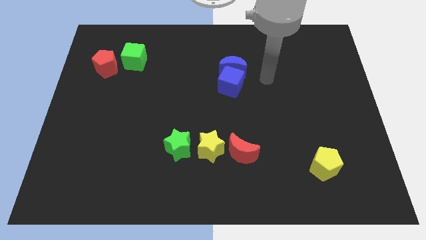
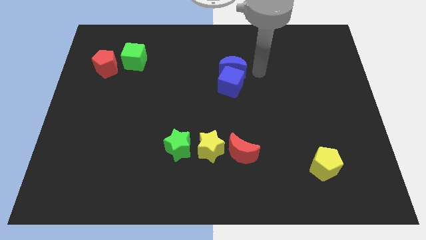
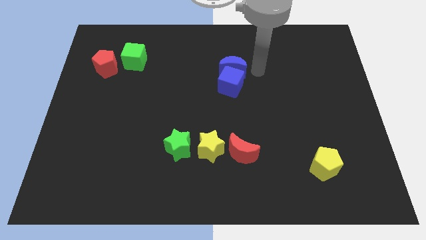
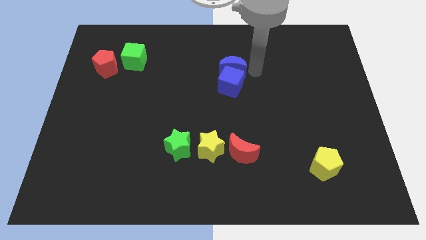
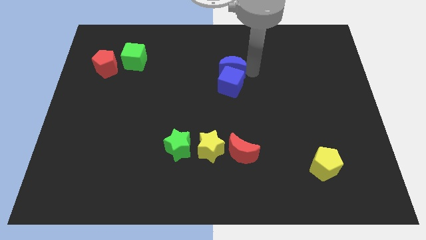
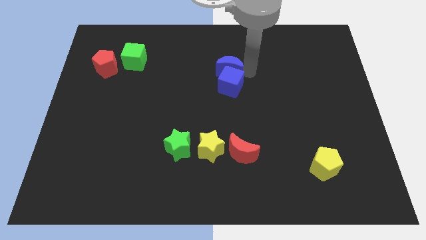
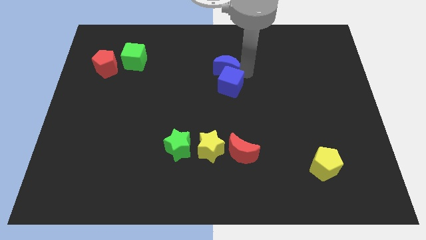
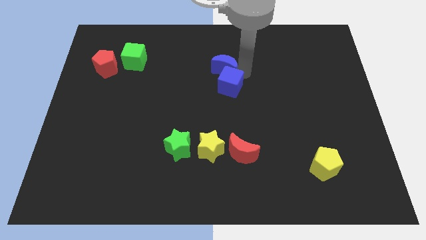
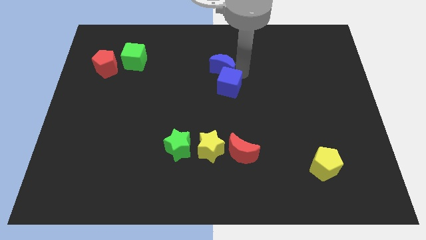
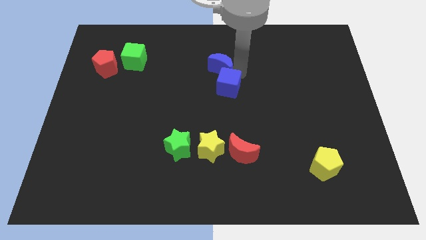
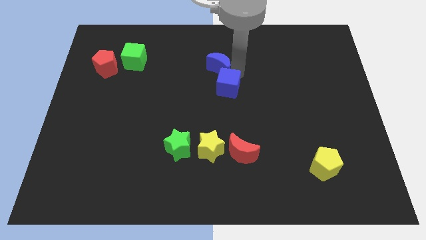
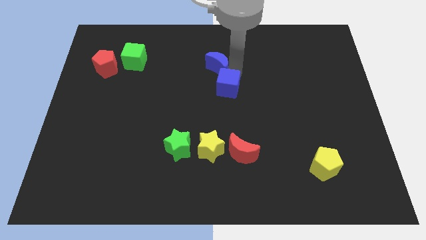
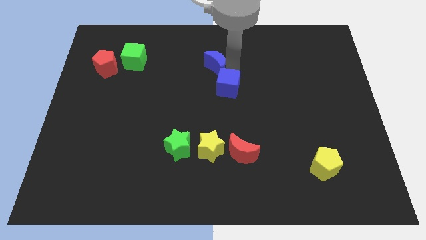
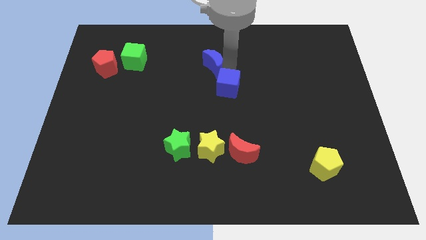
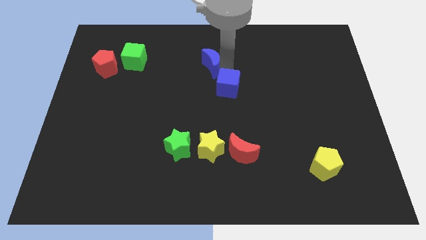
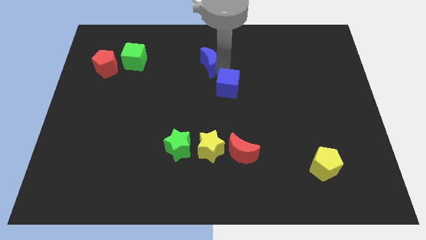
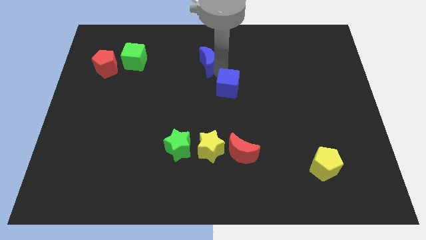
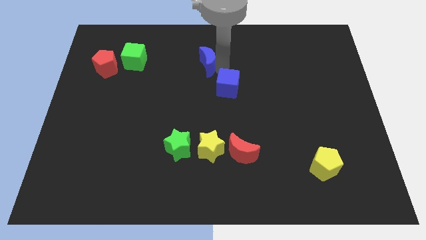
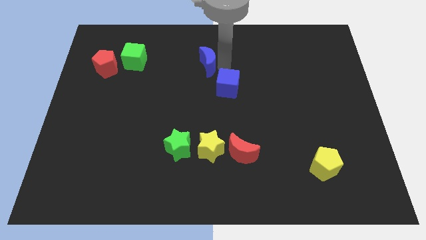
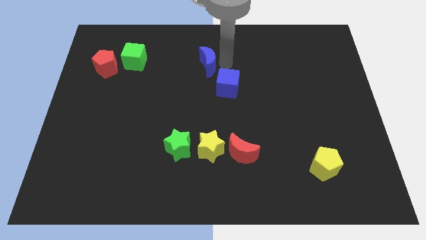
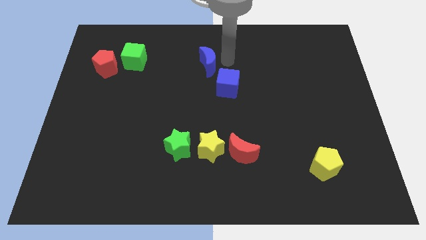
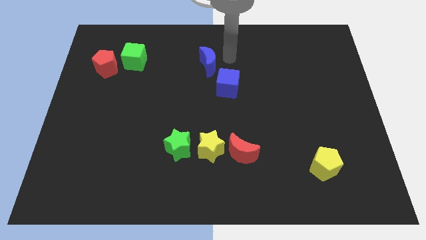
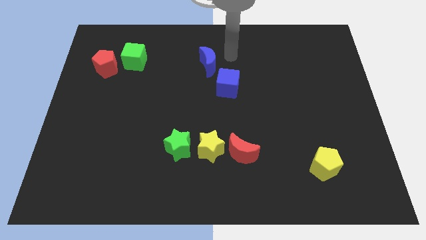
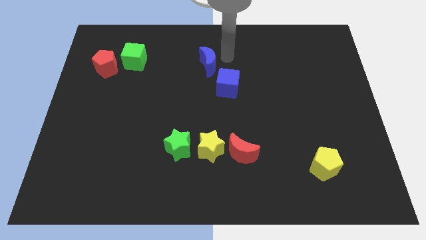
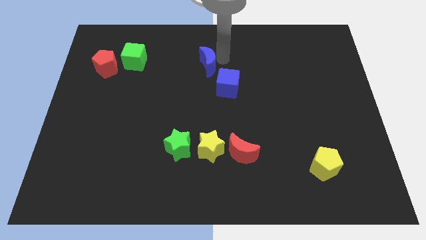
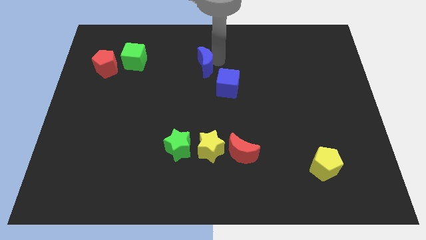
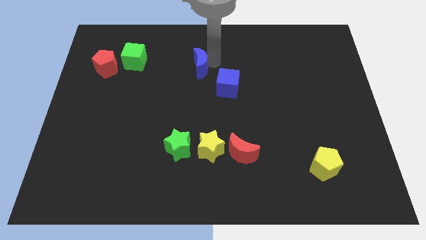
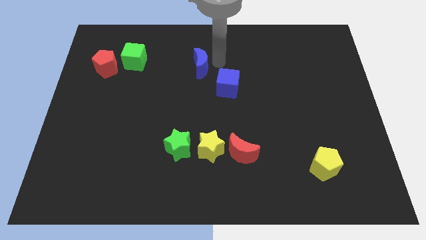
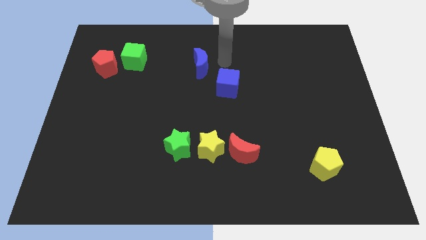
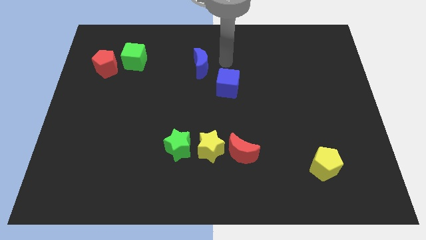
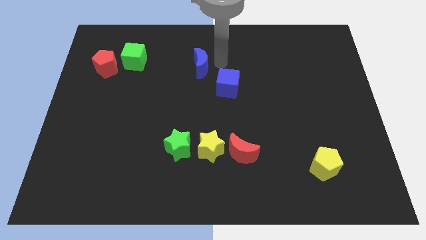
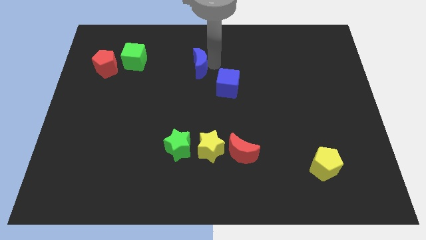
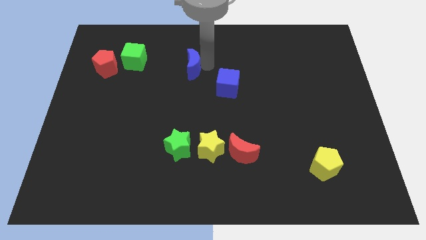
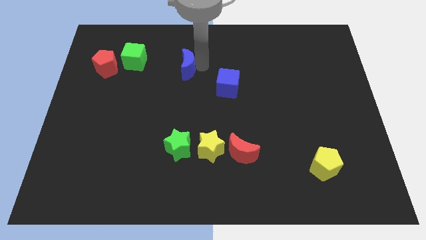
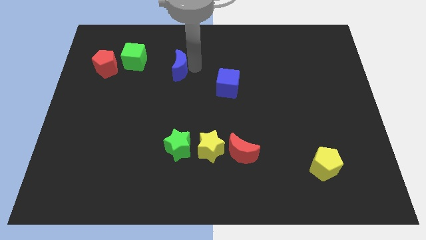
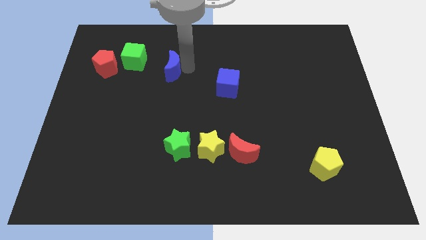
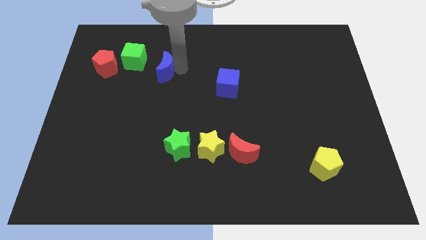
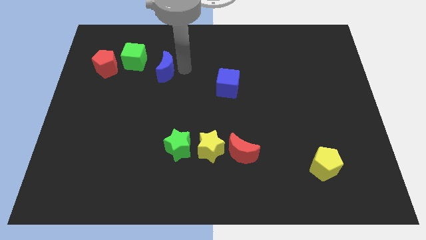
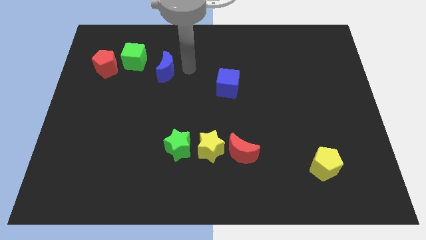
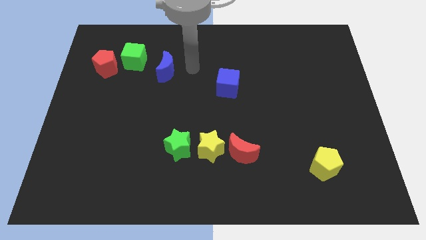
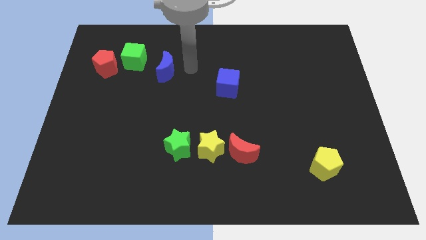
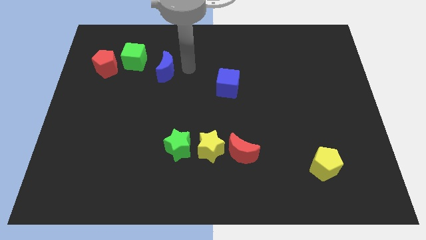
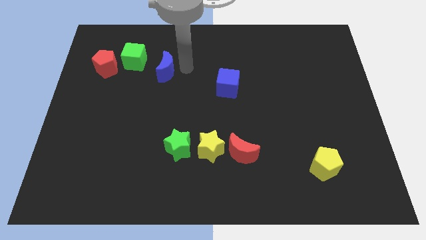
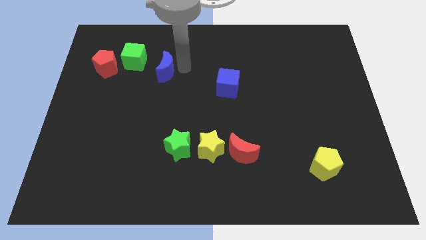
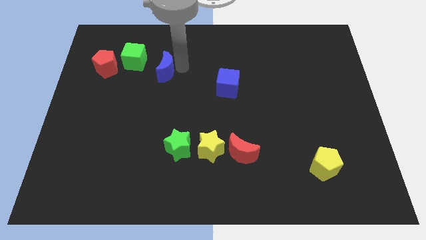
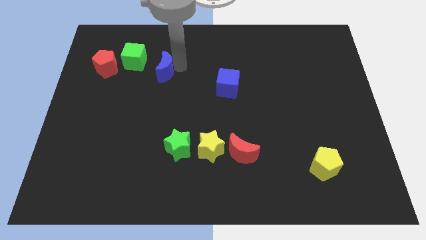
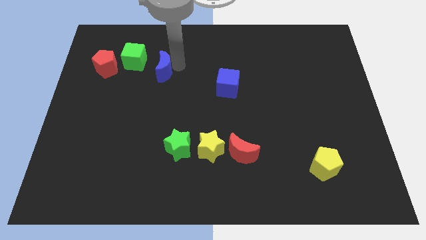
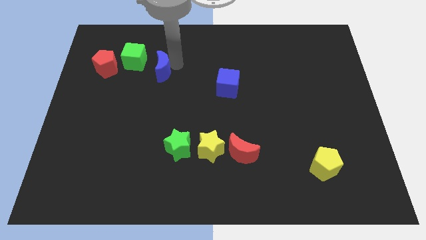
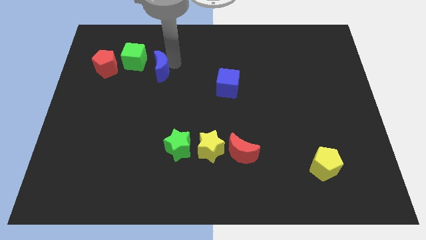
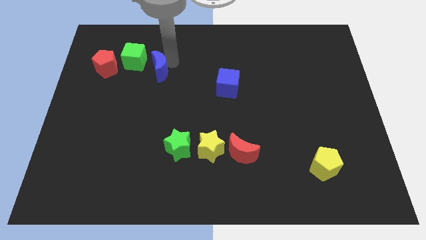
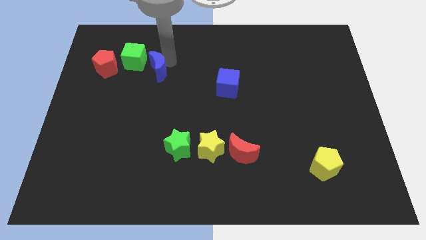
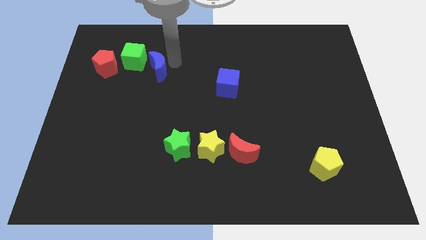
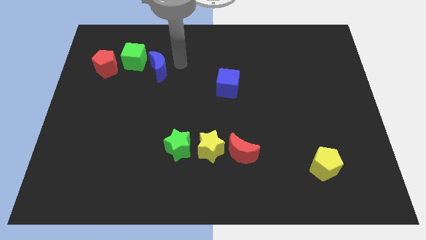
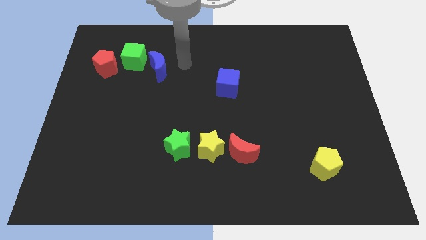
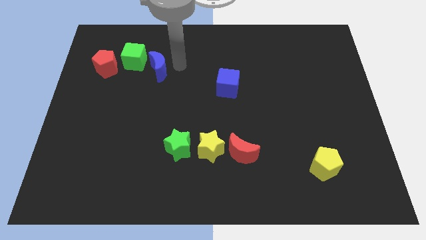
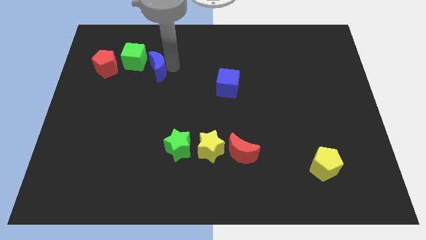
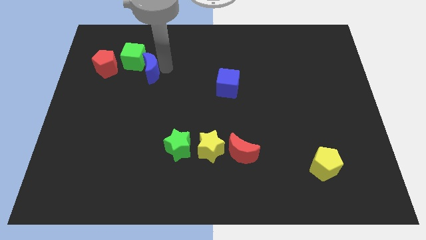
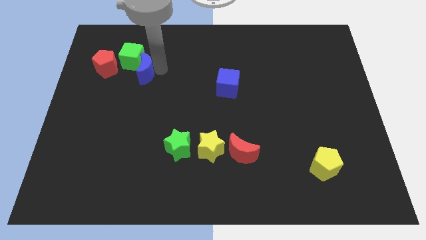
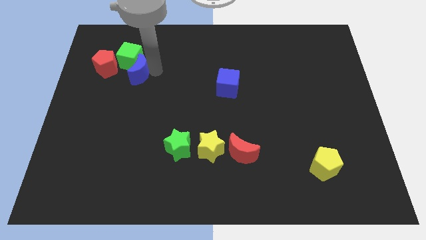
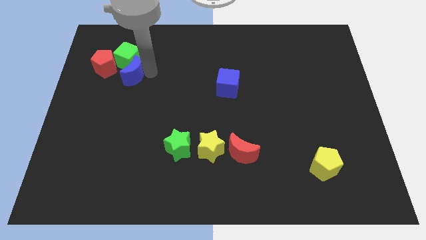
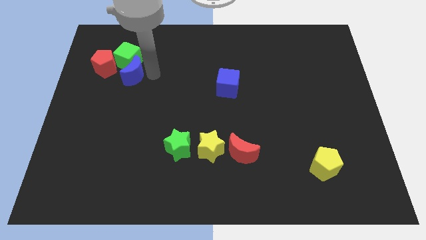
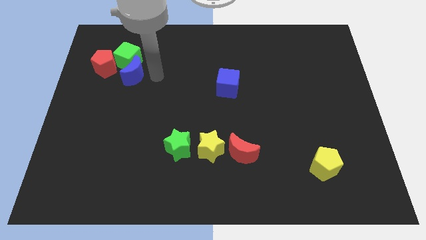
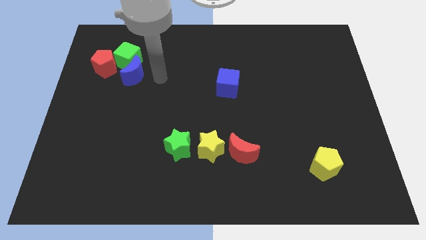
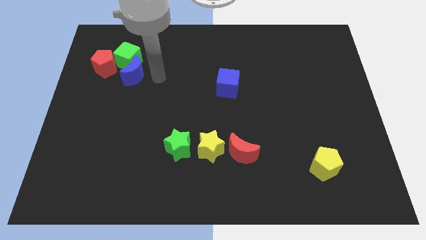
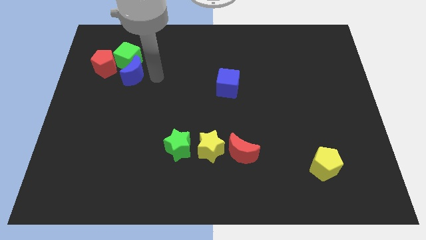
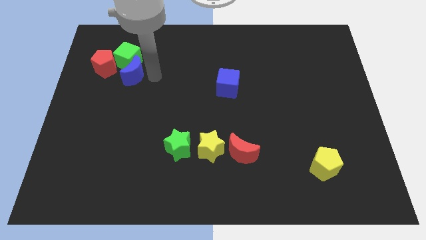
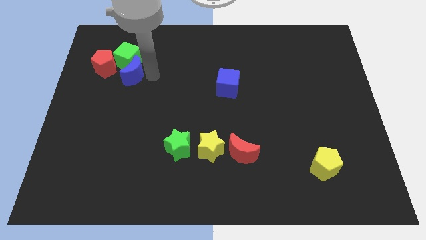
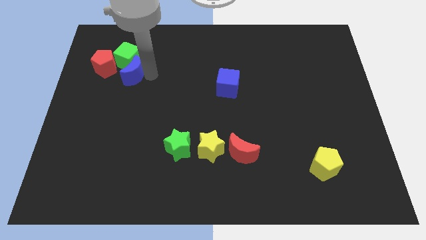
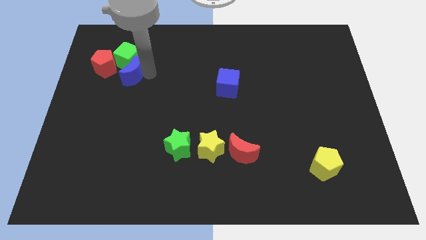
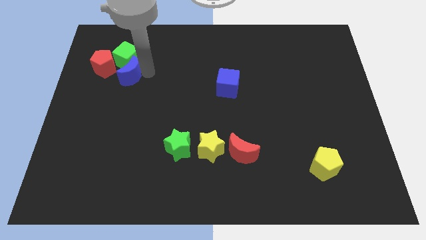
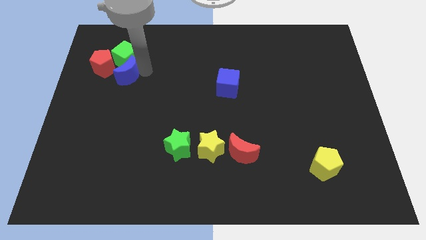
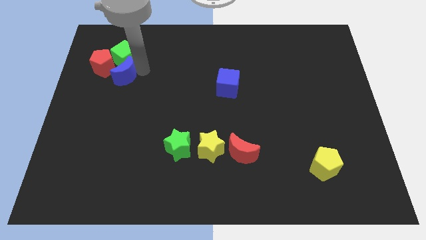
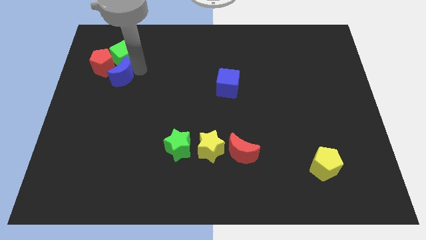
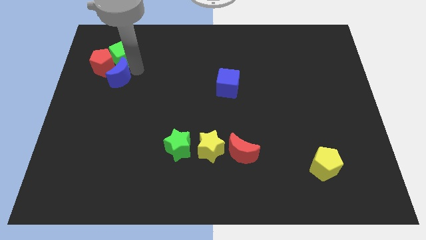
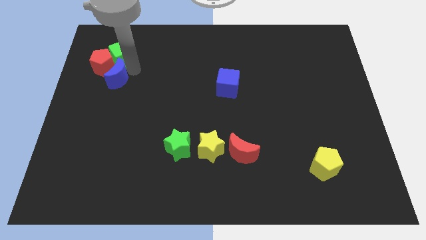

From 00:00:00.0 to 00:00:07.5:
push the blue moon to the red pentagon
